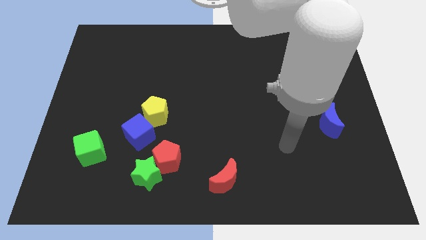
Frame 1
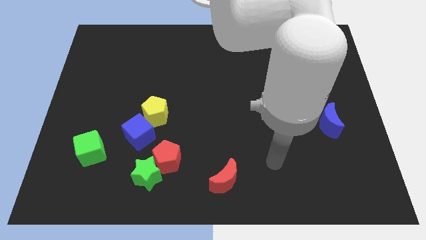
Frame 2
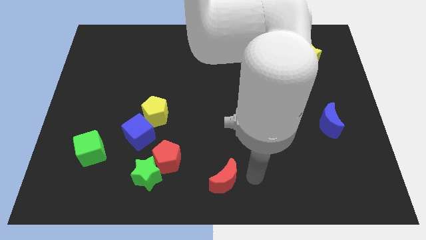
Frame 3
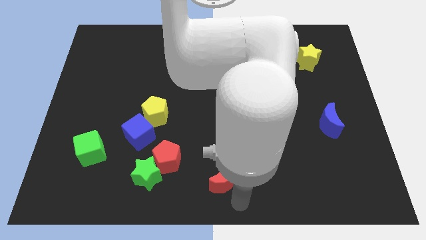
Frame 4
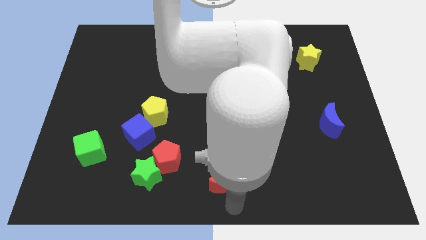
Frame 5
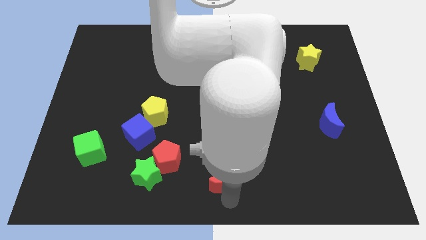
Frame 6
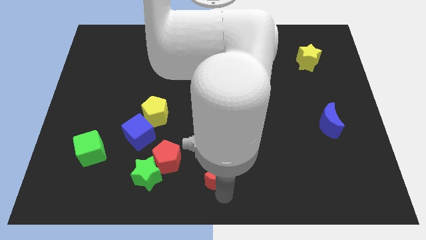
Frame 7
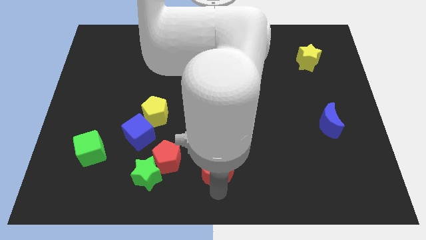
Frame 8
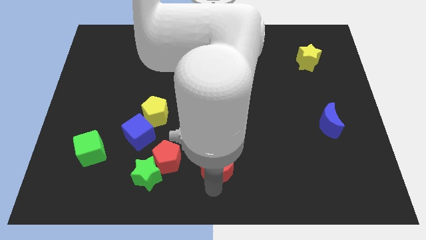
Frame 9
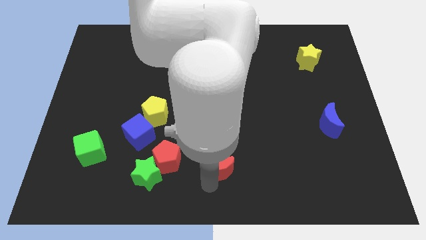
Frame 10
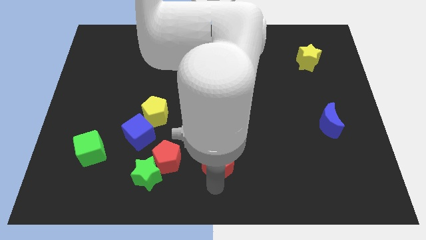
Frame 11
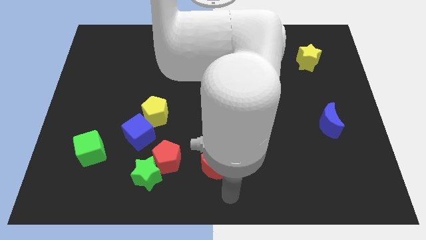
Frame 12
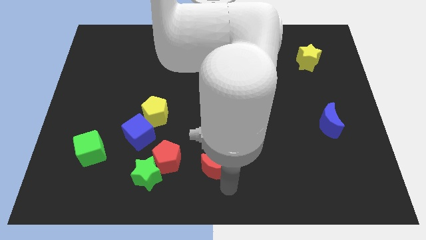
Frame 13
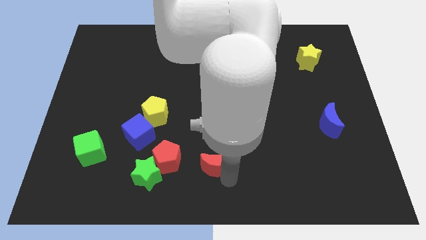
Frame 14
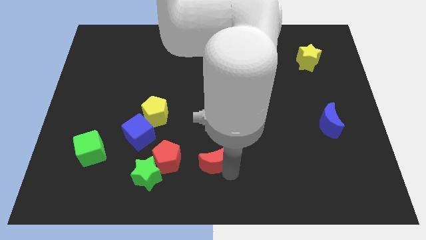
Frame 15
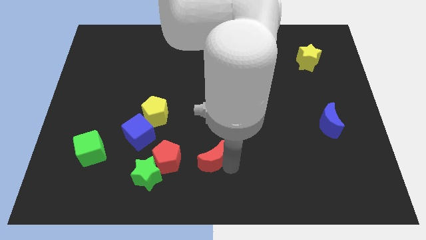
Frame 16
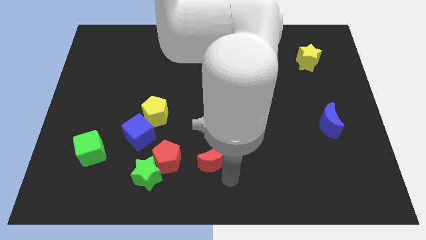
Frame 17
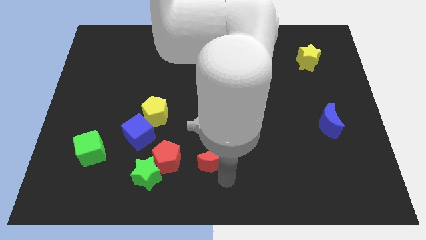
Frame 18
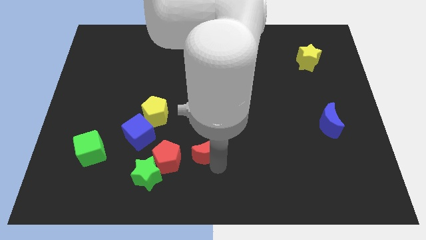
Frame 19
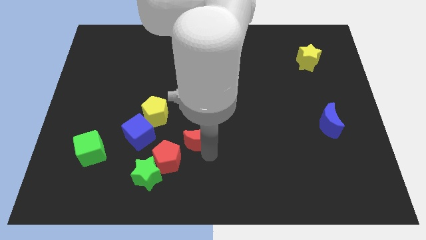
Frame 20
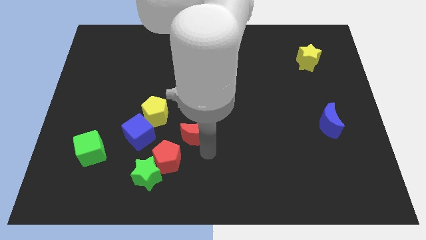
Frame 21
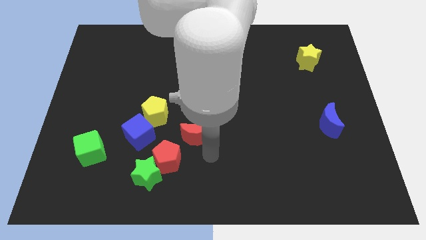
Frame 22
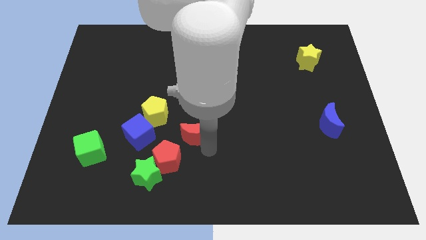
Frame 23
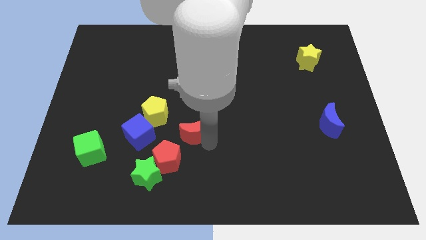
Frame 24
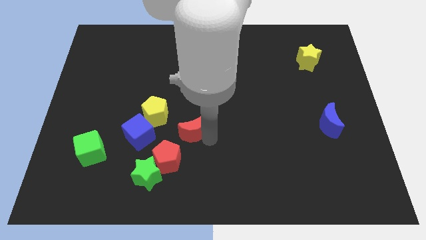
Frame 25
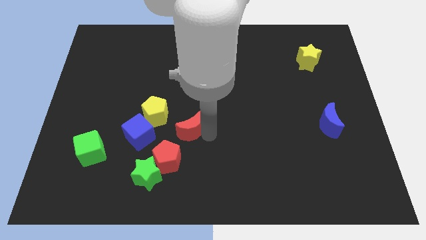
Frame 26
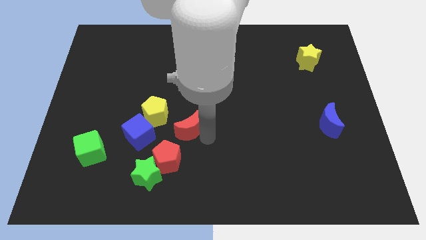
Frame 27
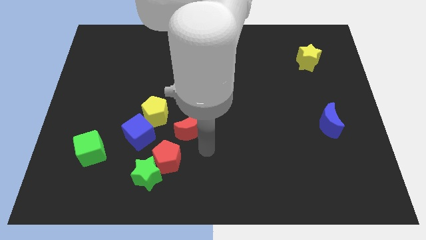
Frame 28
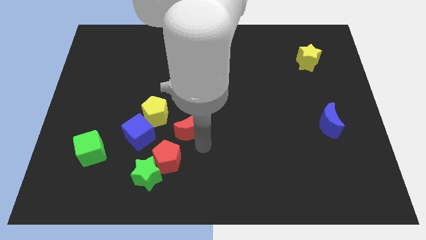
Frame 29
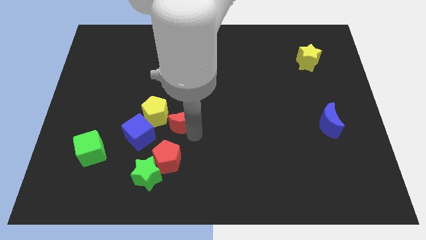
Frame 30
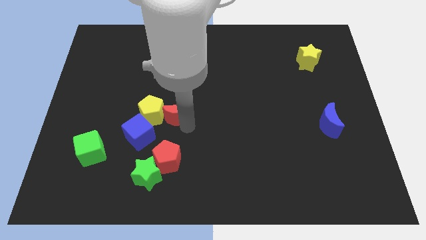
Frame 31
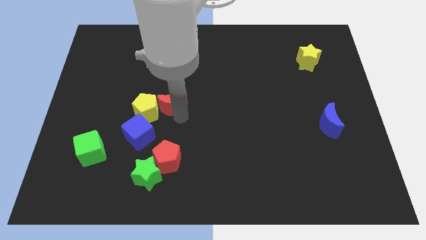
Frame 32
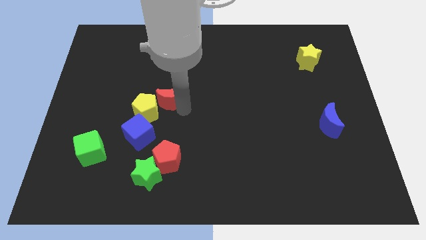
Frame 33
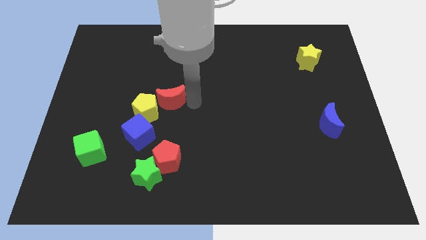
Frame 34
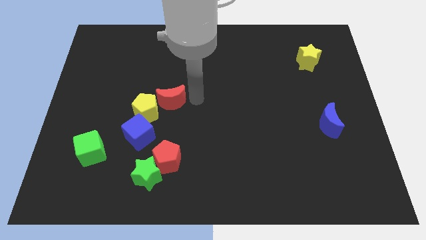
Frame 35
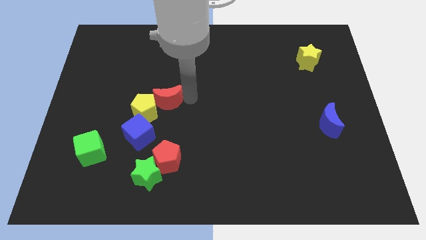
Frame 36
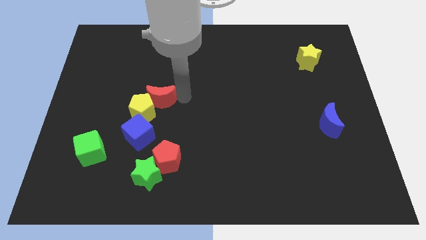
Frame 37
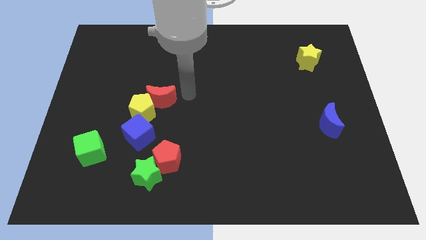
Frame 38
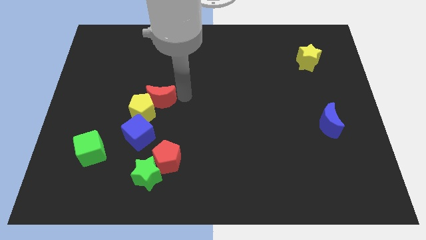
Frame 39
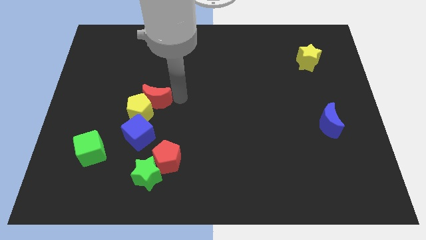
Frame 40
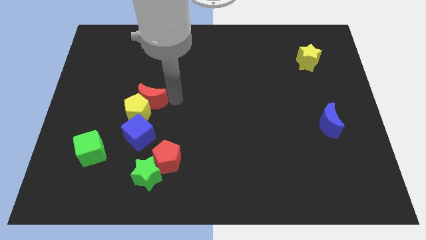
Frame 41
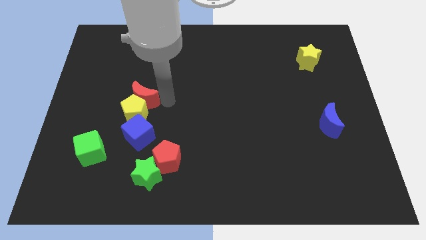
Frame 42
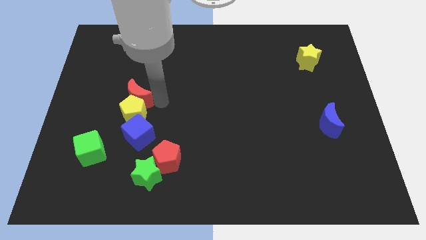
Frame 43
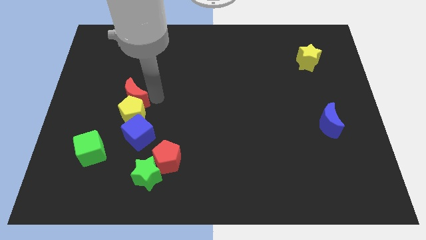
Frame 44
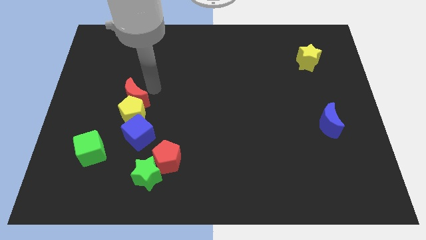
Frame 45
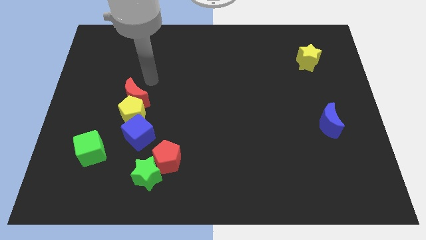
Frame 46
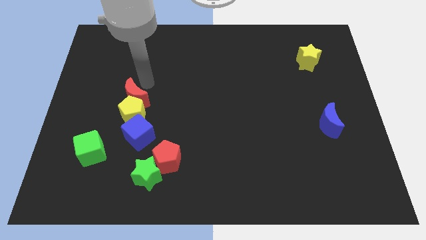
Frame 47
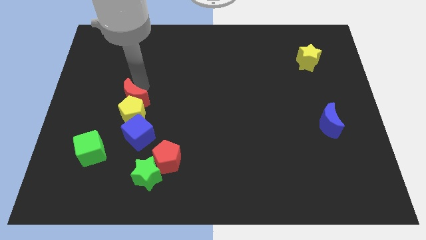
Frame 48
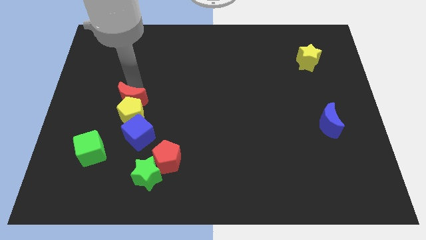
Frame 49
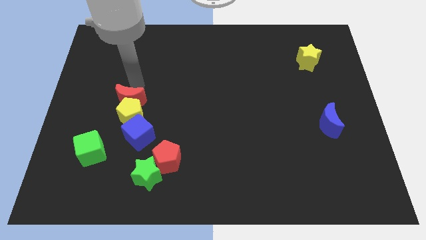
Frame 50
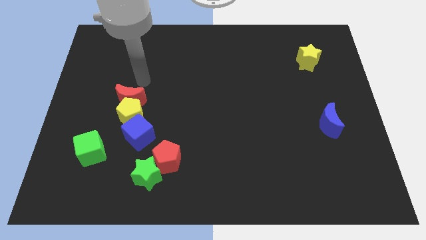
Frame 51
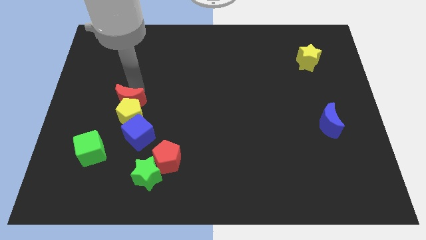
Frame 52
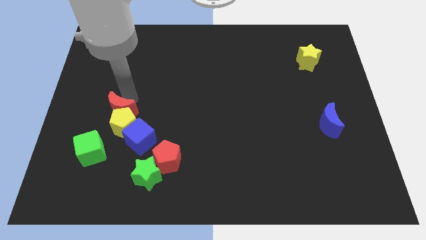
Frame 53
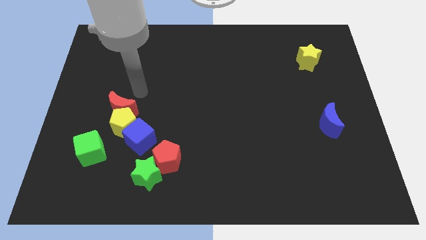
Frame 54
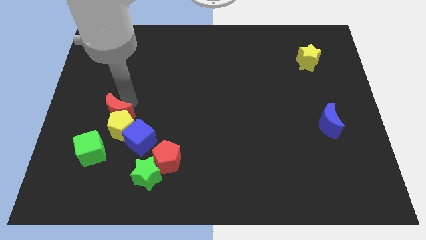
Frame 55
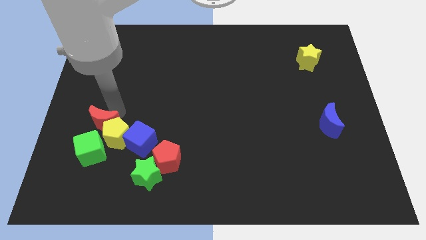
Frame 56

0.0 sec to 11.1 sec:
push the red moon to the left side of the blue cube
